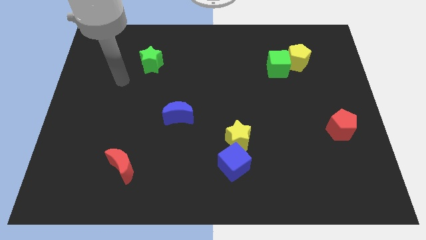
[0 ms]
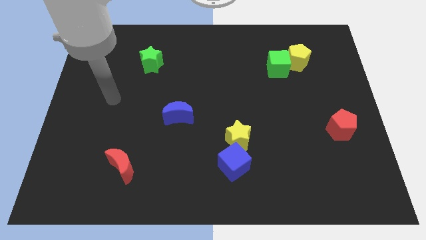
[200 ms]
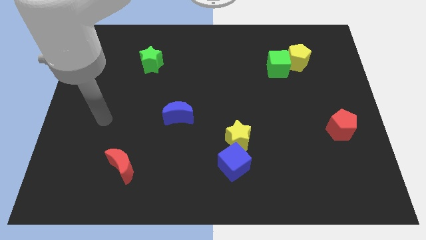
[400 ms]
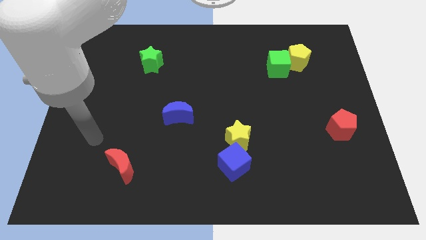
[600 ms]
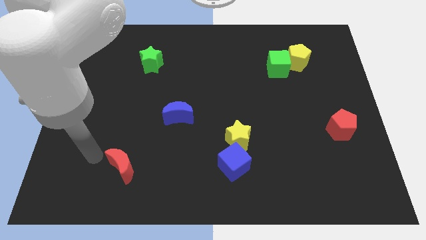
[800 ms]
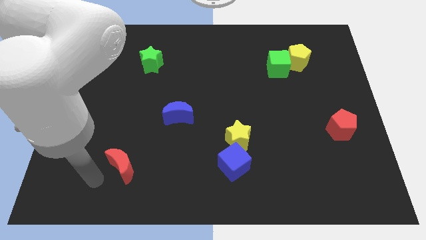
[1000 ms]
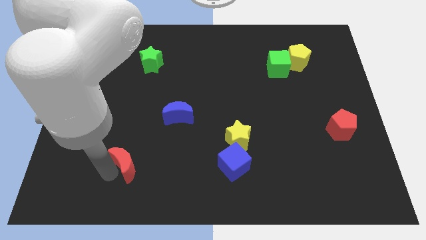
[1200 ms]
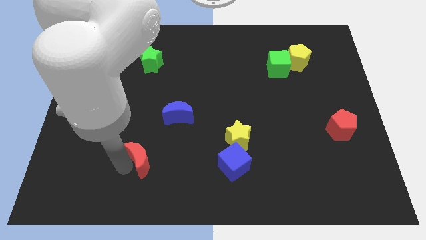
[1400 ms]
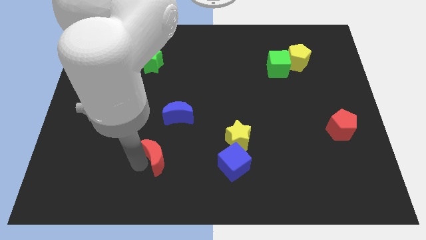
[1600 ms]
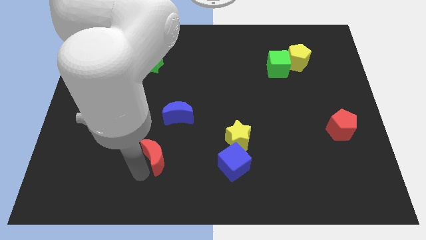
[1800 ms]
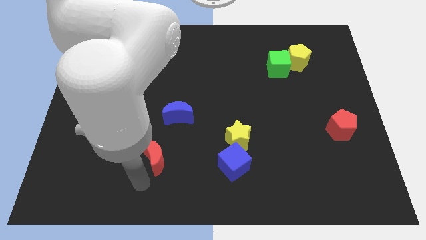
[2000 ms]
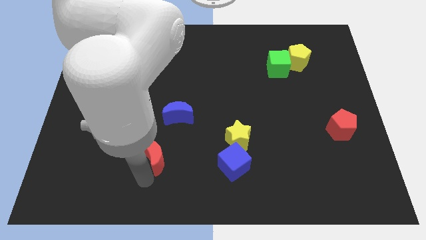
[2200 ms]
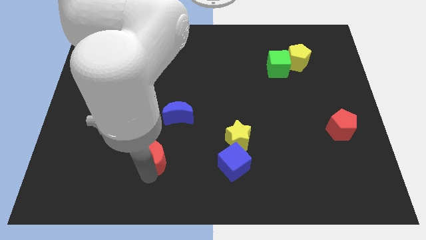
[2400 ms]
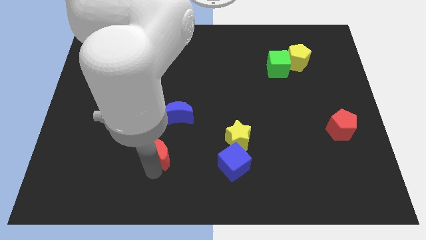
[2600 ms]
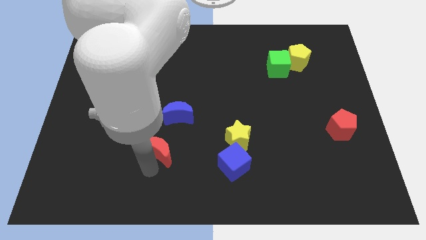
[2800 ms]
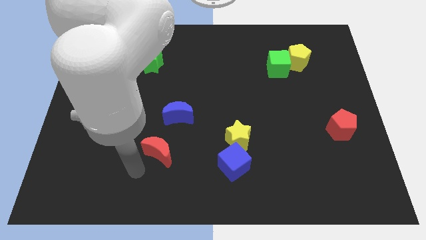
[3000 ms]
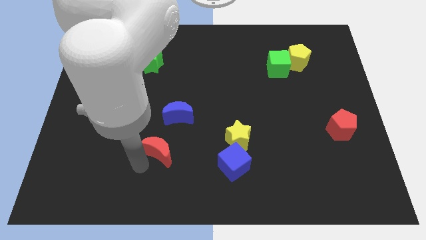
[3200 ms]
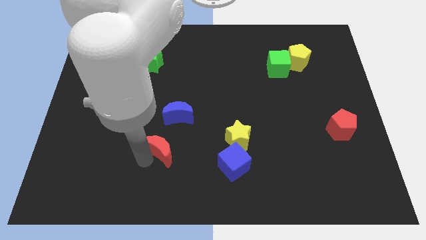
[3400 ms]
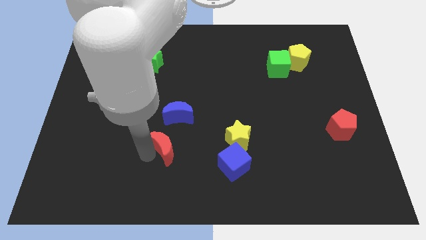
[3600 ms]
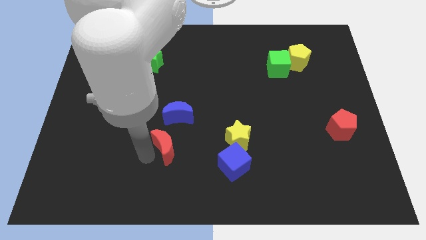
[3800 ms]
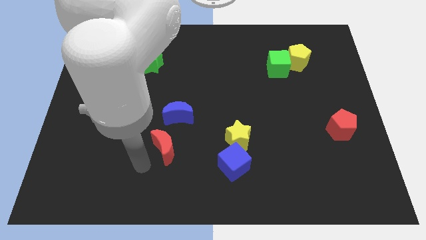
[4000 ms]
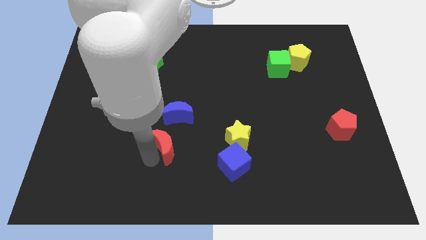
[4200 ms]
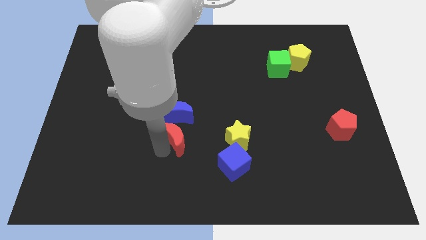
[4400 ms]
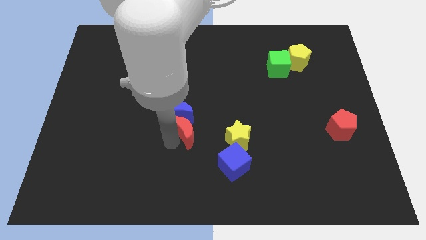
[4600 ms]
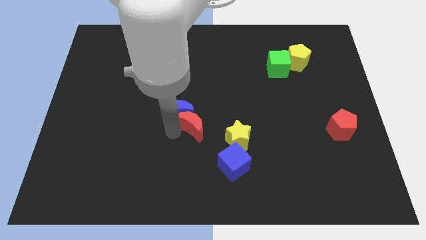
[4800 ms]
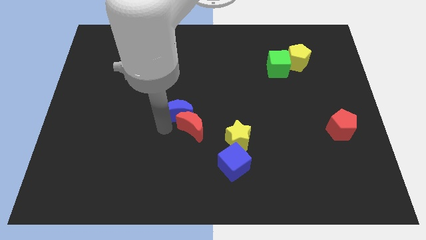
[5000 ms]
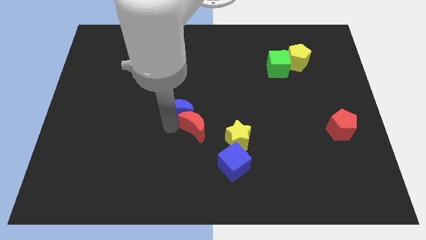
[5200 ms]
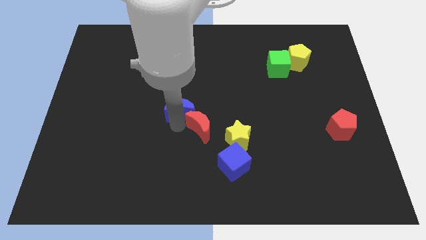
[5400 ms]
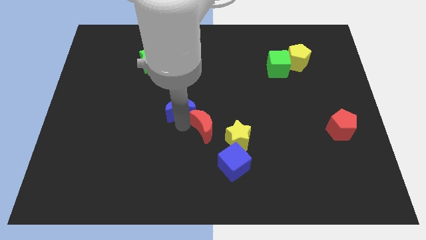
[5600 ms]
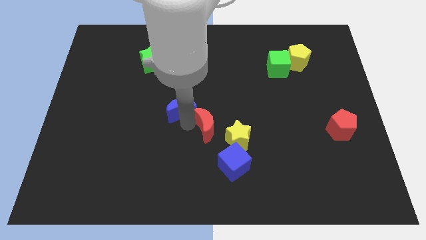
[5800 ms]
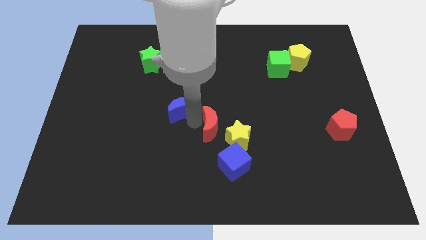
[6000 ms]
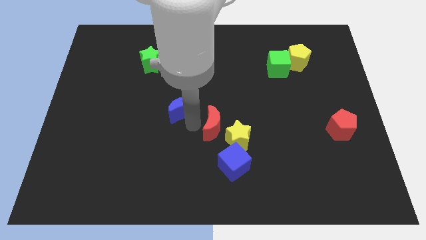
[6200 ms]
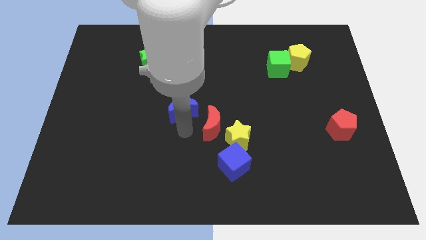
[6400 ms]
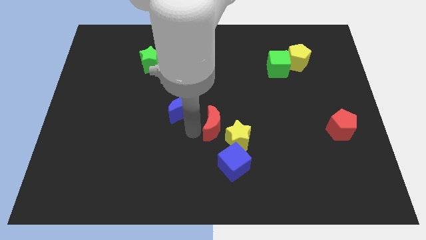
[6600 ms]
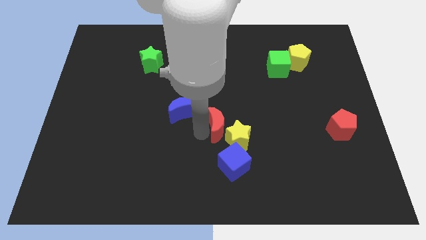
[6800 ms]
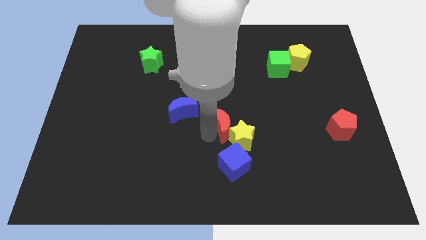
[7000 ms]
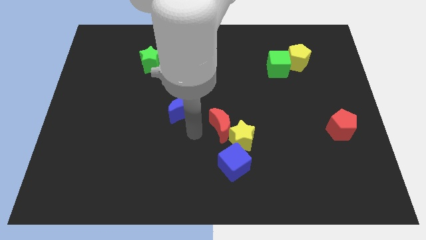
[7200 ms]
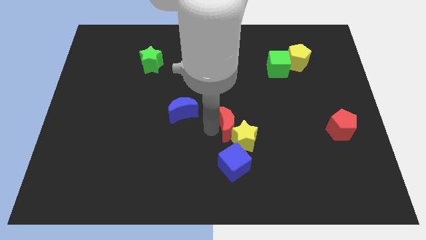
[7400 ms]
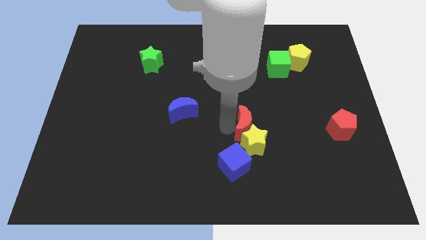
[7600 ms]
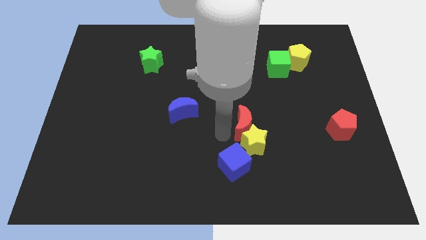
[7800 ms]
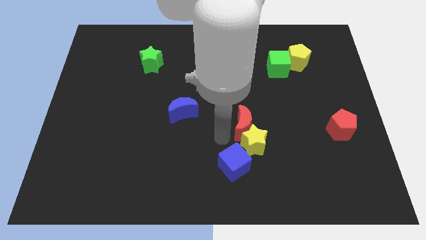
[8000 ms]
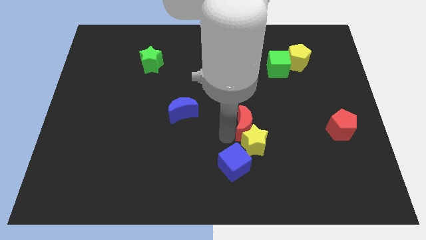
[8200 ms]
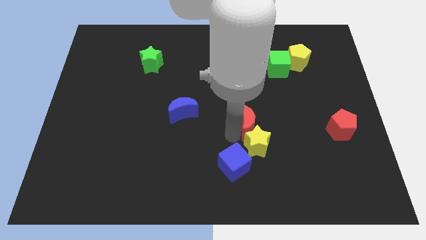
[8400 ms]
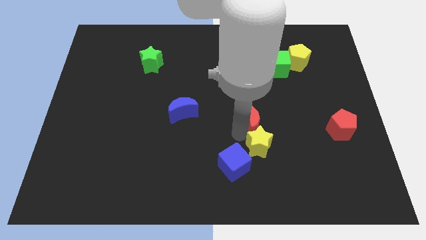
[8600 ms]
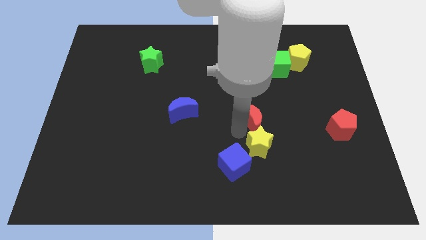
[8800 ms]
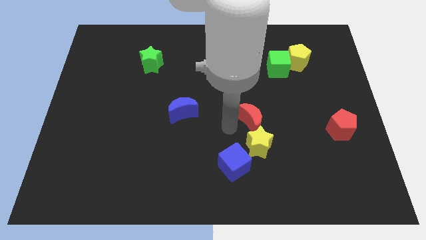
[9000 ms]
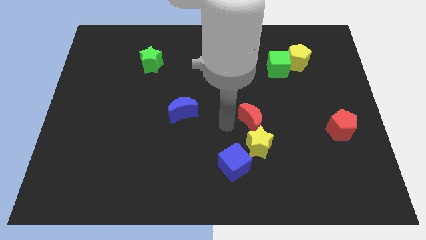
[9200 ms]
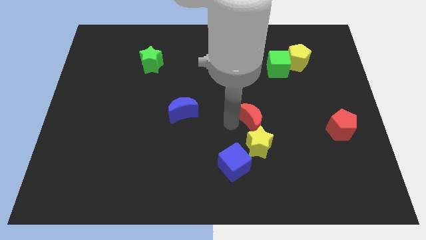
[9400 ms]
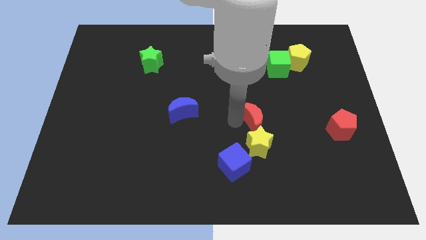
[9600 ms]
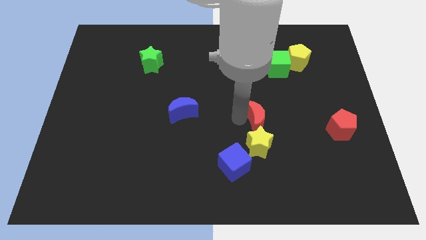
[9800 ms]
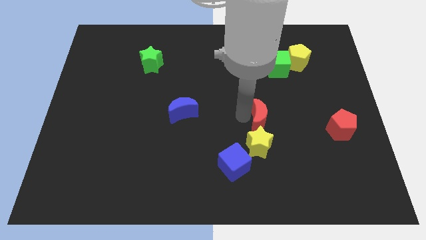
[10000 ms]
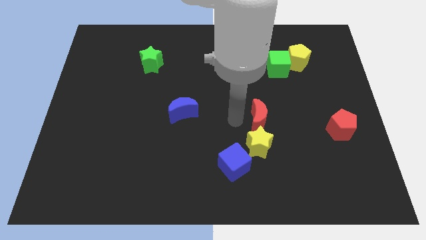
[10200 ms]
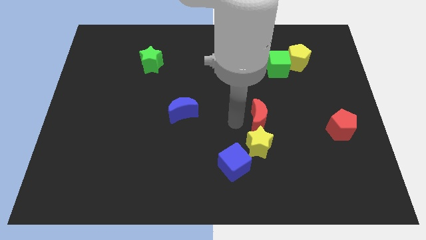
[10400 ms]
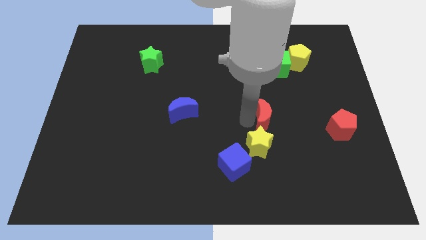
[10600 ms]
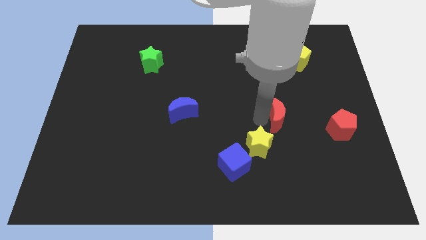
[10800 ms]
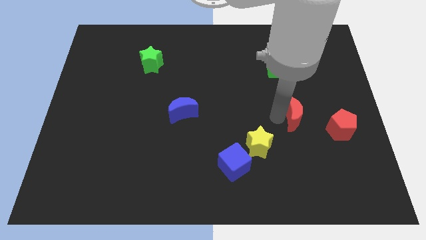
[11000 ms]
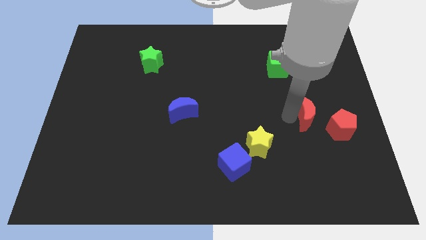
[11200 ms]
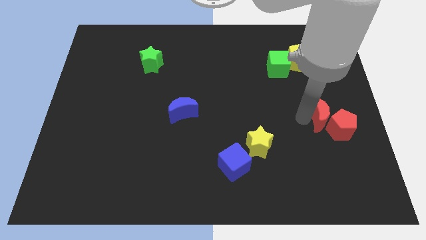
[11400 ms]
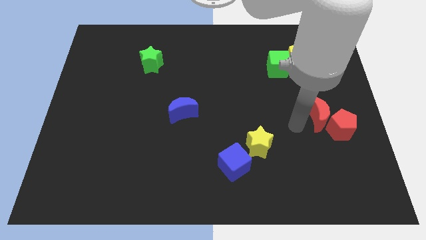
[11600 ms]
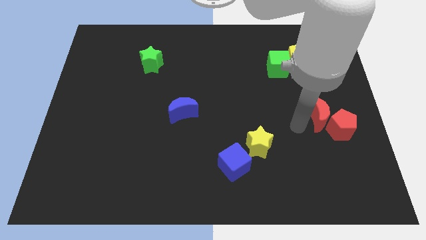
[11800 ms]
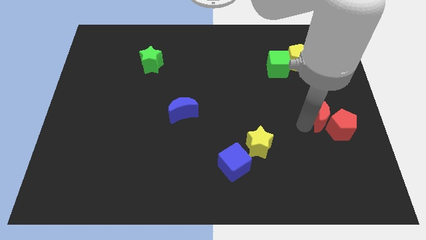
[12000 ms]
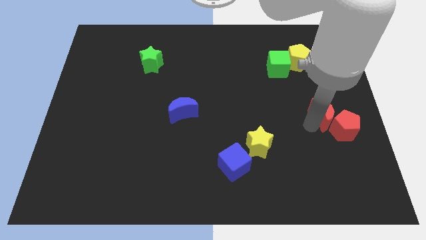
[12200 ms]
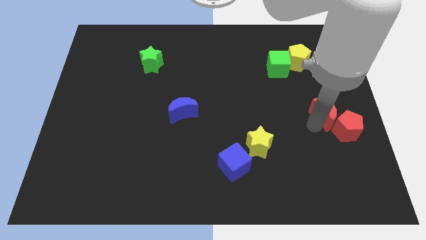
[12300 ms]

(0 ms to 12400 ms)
push the red moon to the right side

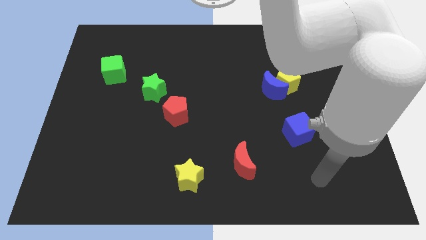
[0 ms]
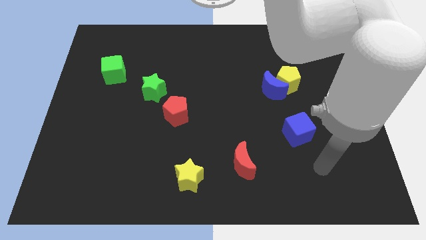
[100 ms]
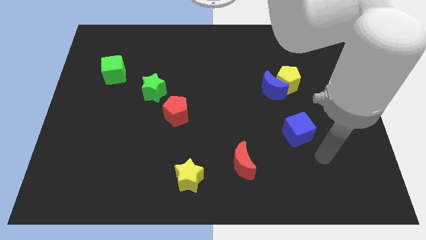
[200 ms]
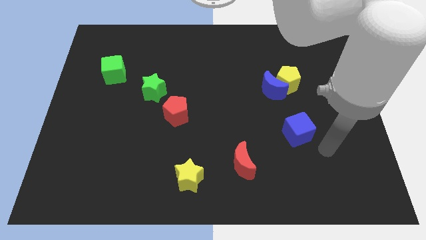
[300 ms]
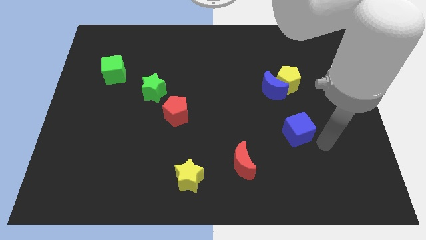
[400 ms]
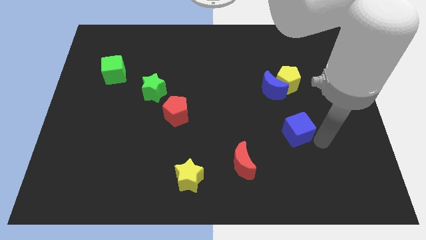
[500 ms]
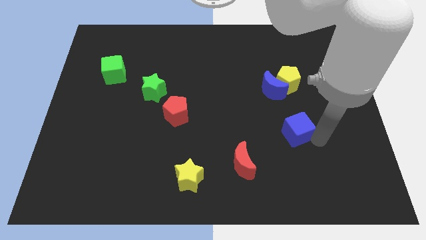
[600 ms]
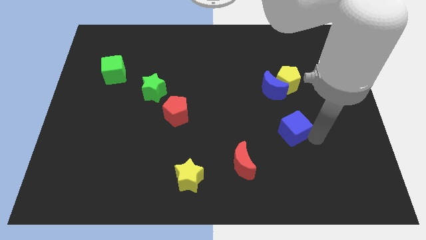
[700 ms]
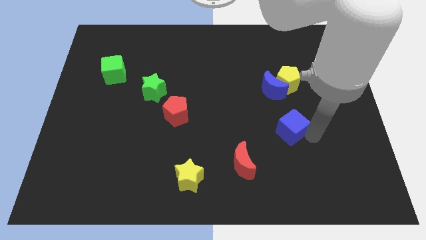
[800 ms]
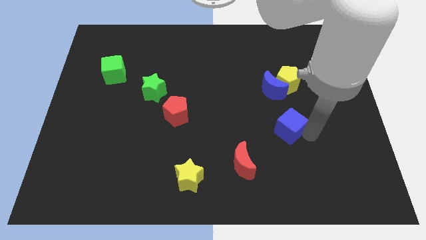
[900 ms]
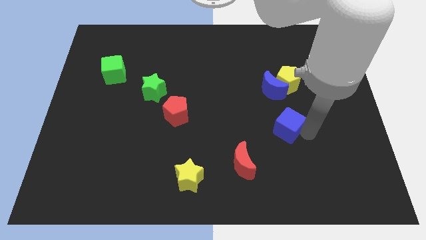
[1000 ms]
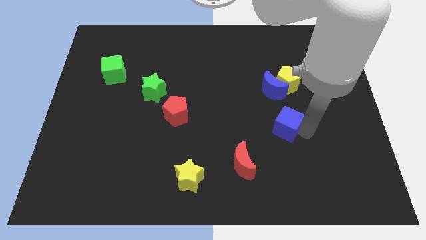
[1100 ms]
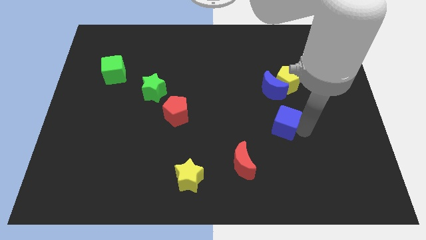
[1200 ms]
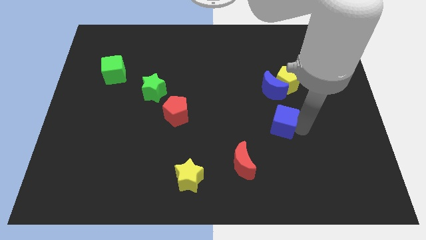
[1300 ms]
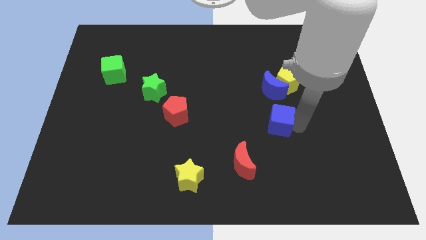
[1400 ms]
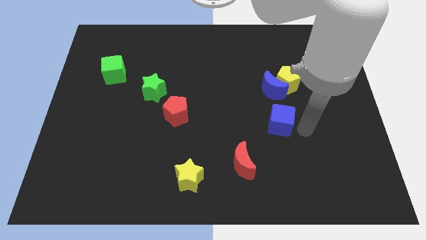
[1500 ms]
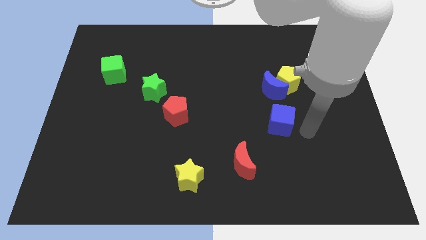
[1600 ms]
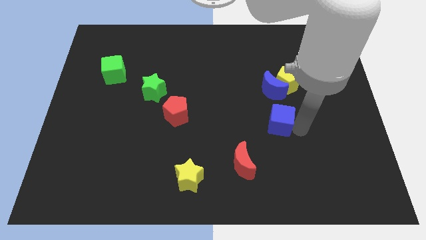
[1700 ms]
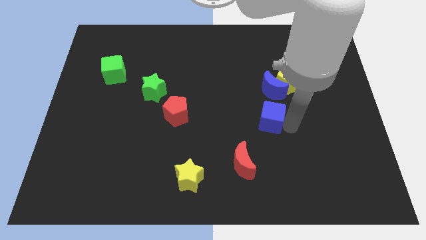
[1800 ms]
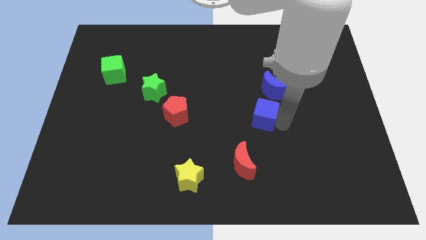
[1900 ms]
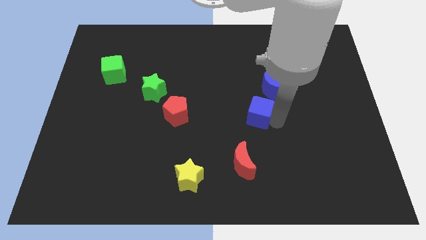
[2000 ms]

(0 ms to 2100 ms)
move the blue cube to the middle of the board
